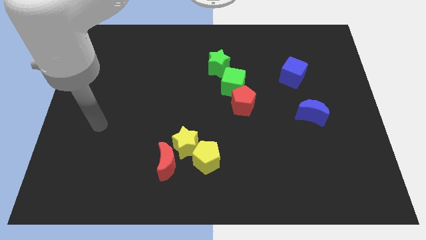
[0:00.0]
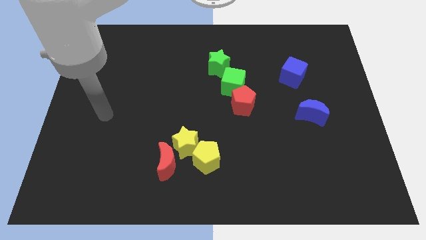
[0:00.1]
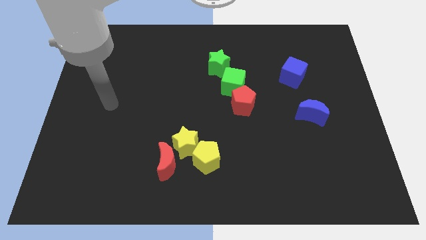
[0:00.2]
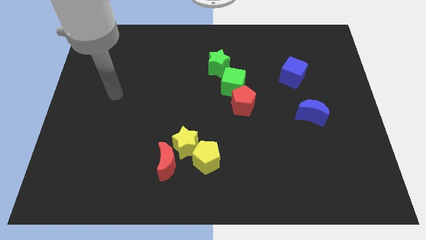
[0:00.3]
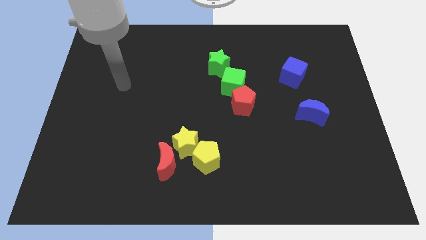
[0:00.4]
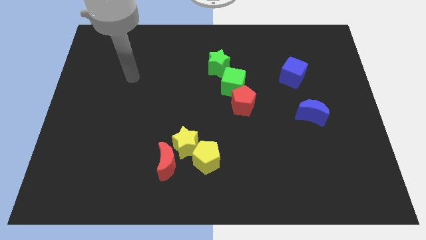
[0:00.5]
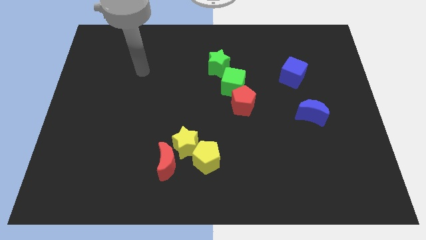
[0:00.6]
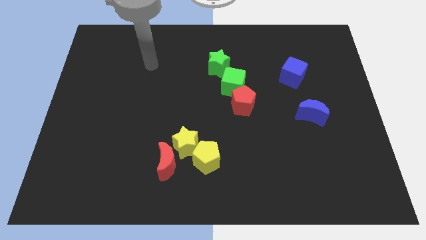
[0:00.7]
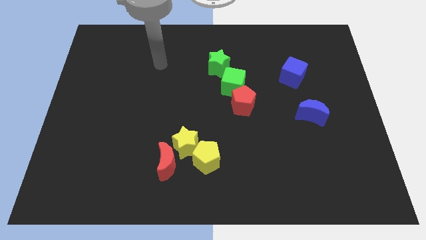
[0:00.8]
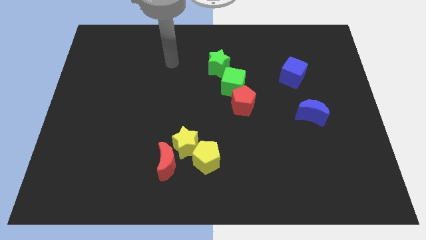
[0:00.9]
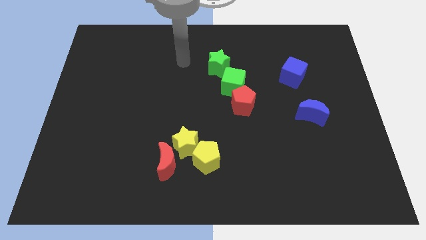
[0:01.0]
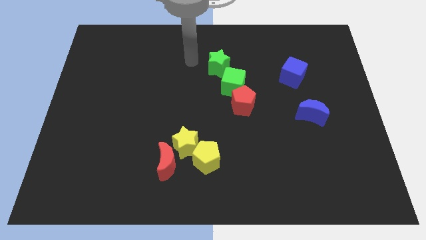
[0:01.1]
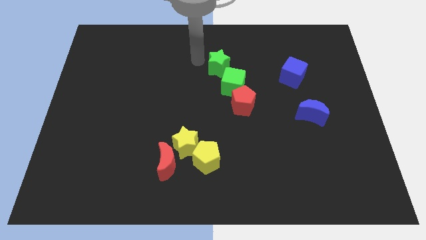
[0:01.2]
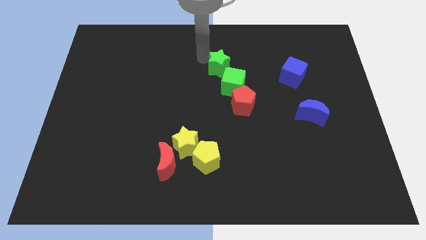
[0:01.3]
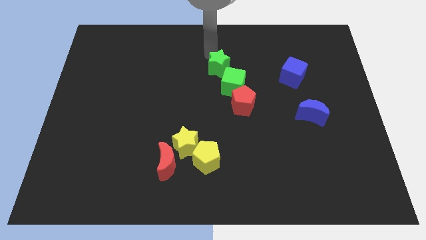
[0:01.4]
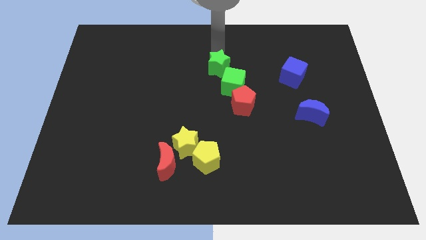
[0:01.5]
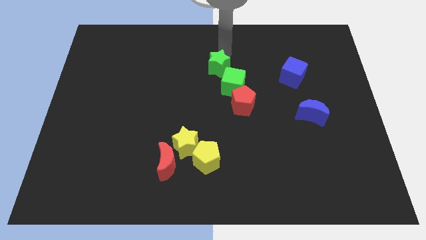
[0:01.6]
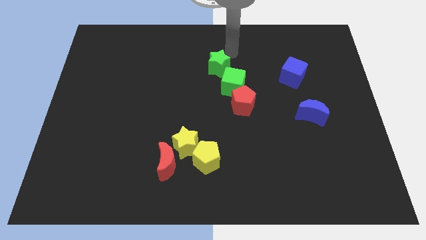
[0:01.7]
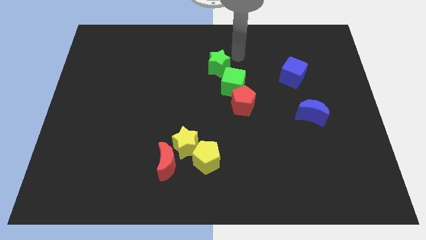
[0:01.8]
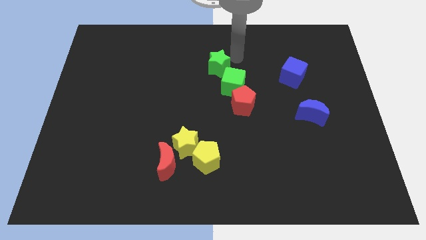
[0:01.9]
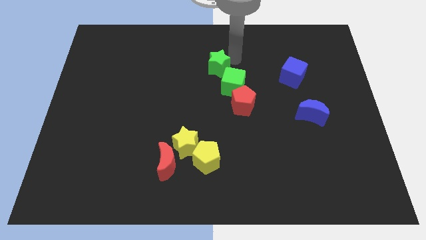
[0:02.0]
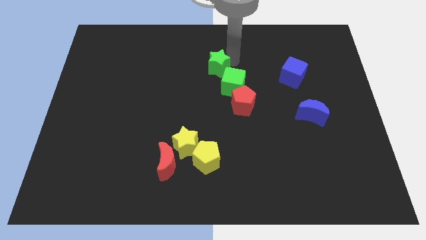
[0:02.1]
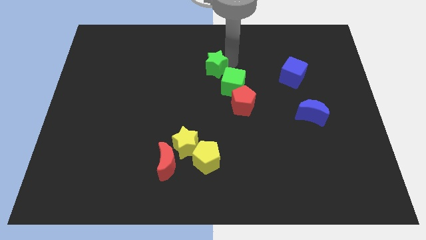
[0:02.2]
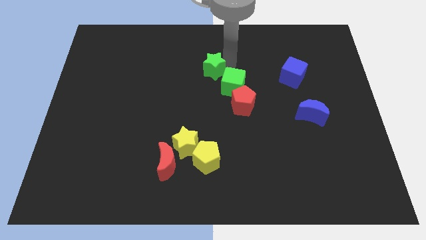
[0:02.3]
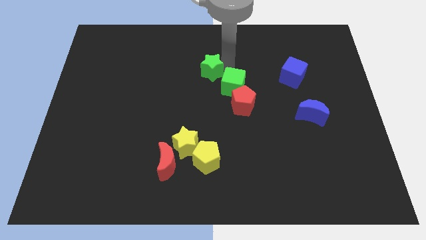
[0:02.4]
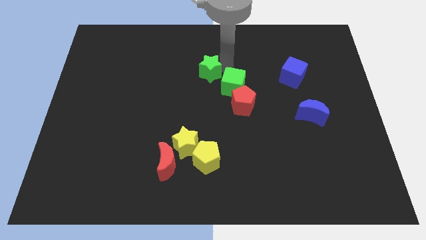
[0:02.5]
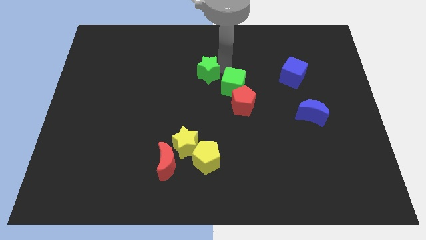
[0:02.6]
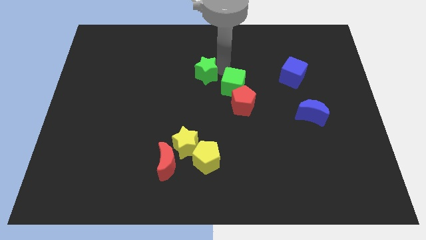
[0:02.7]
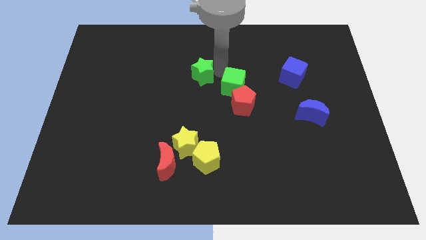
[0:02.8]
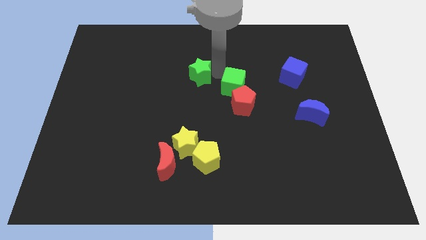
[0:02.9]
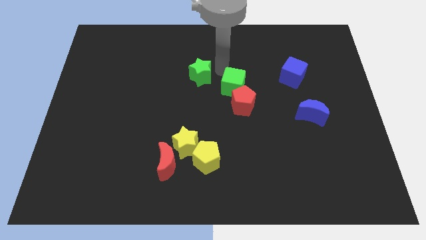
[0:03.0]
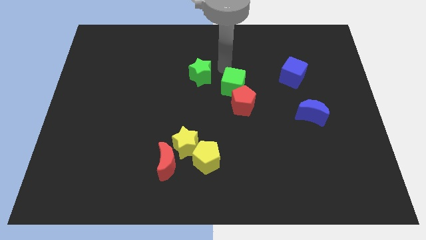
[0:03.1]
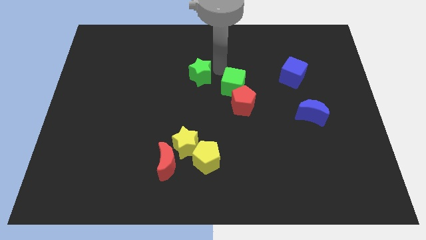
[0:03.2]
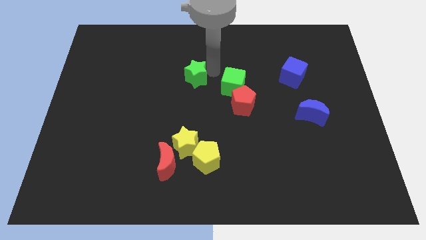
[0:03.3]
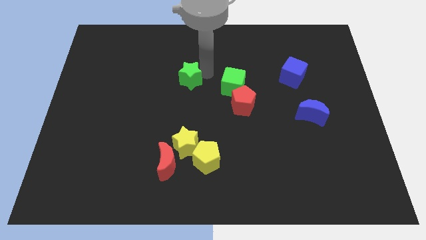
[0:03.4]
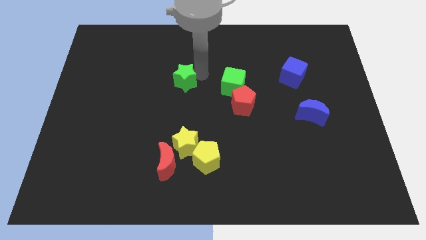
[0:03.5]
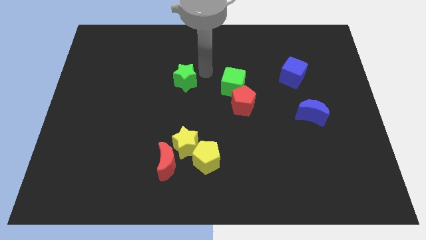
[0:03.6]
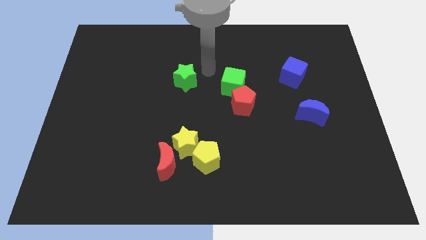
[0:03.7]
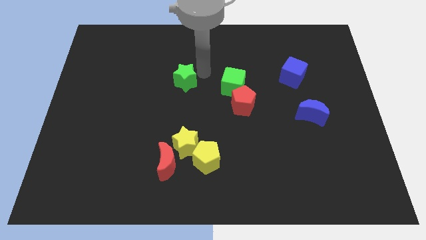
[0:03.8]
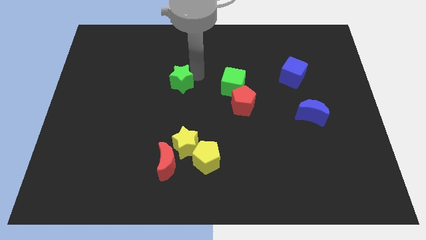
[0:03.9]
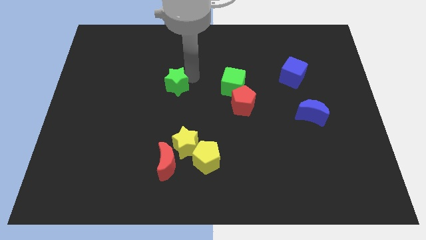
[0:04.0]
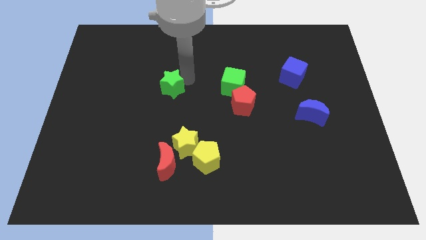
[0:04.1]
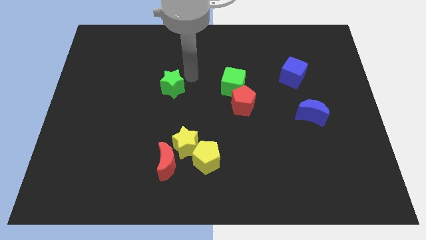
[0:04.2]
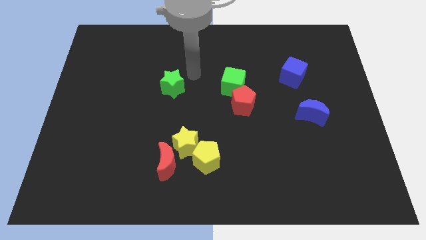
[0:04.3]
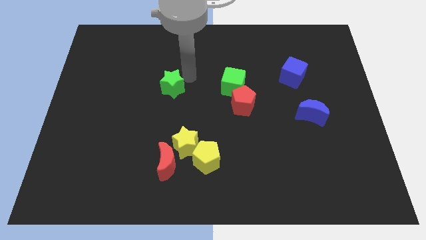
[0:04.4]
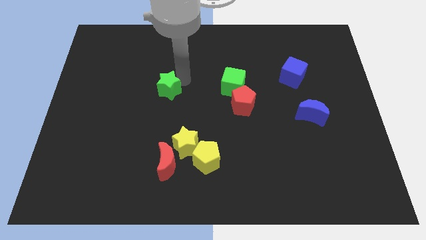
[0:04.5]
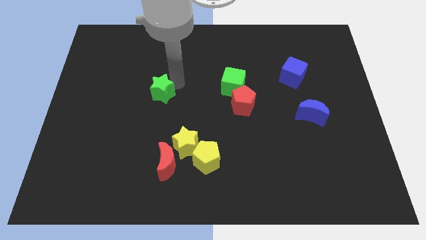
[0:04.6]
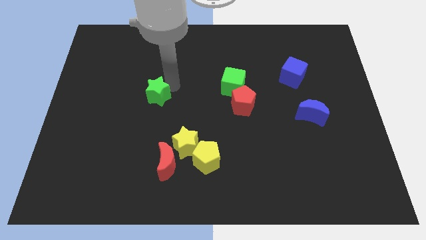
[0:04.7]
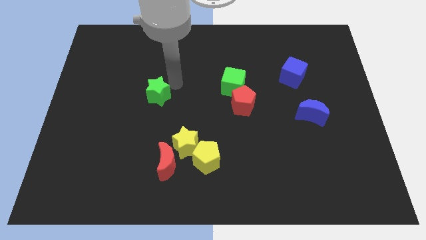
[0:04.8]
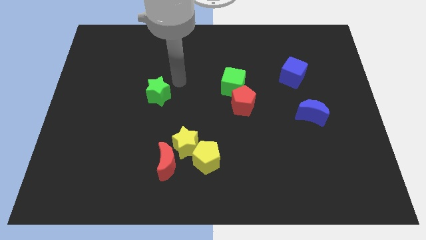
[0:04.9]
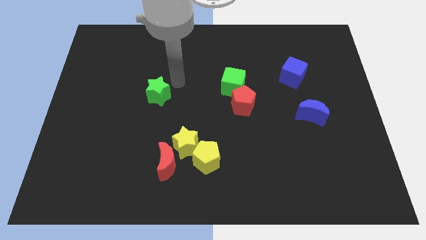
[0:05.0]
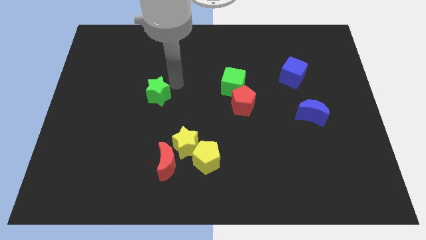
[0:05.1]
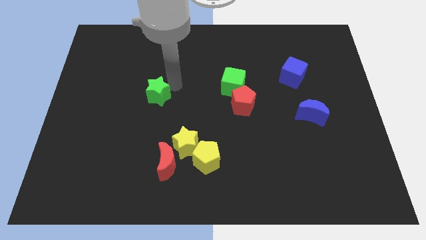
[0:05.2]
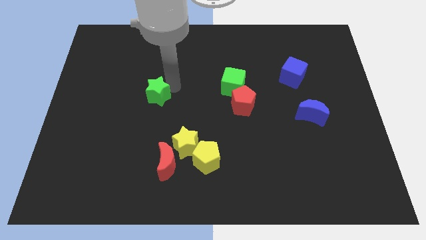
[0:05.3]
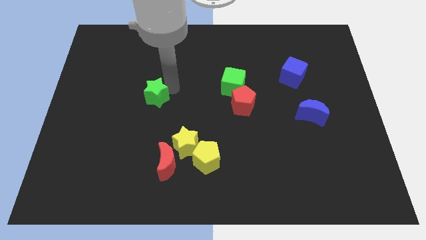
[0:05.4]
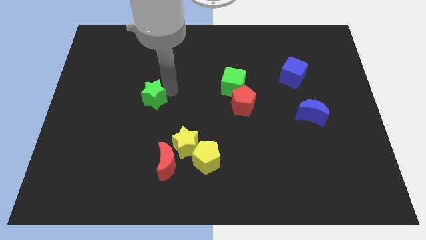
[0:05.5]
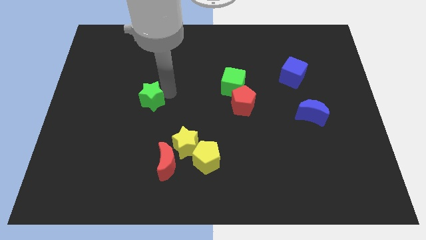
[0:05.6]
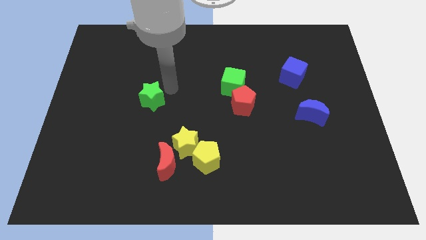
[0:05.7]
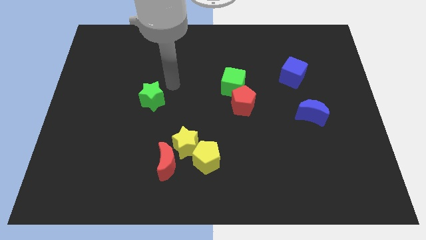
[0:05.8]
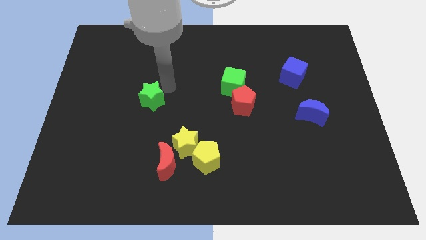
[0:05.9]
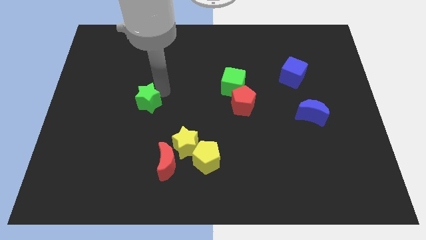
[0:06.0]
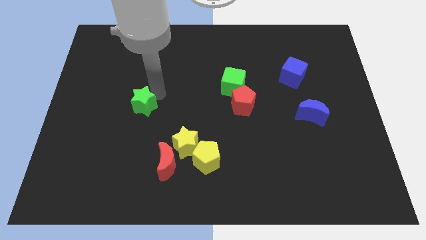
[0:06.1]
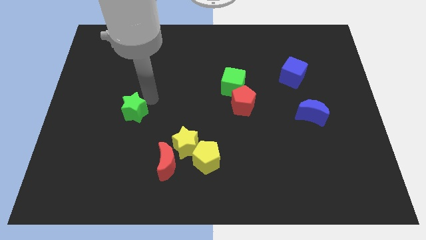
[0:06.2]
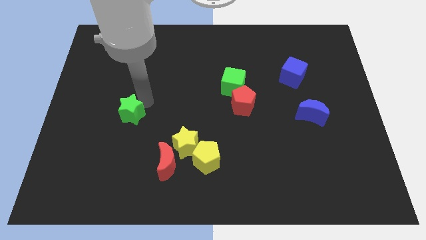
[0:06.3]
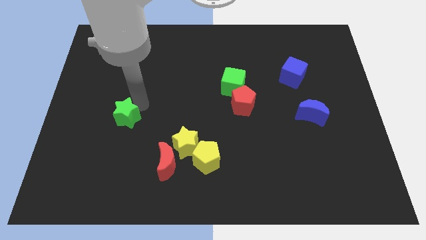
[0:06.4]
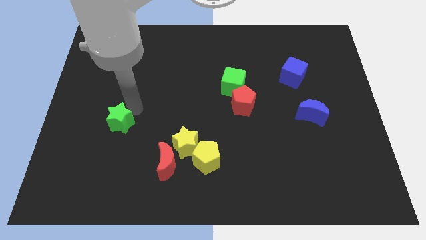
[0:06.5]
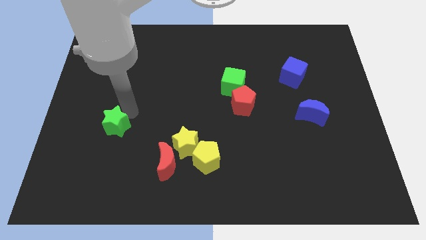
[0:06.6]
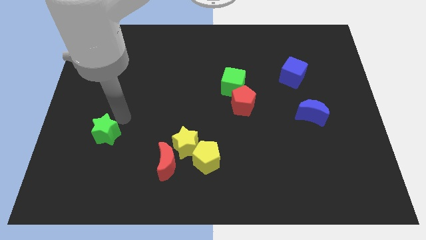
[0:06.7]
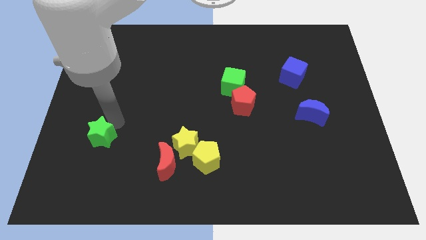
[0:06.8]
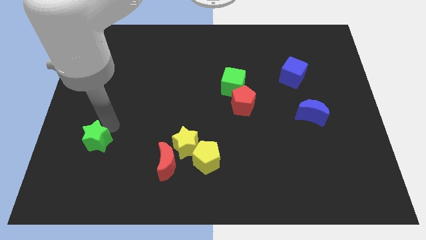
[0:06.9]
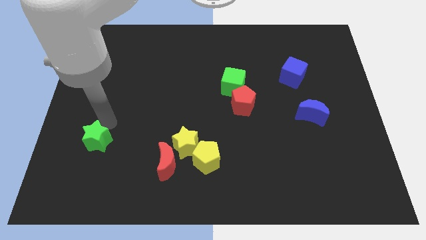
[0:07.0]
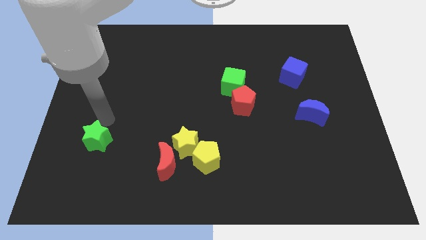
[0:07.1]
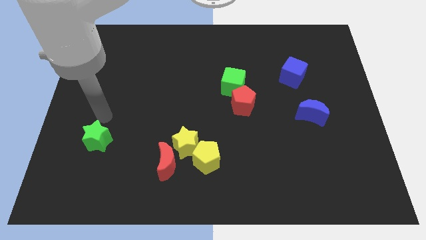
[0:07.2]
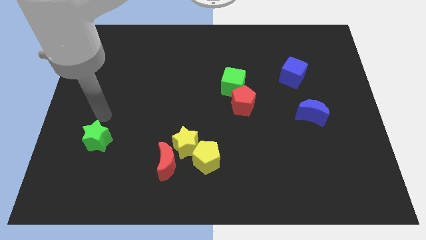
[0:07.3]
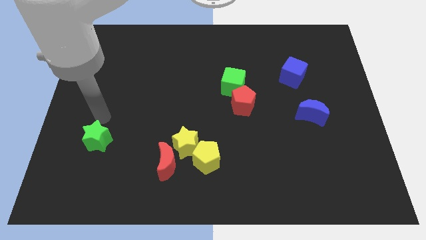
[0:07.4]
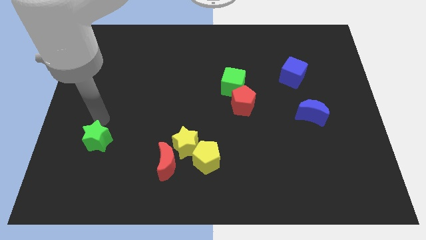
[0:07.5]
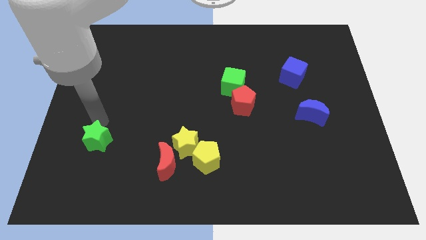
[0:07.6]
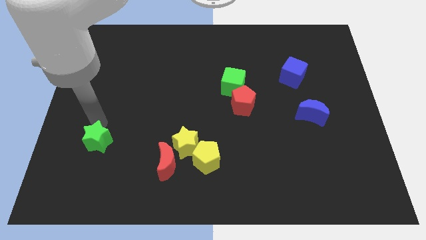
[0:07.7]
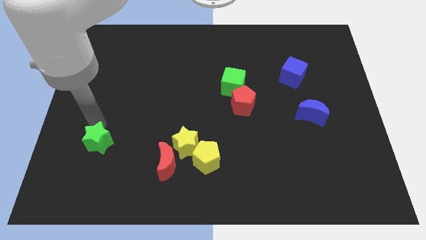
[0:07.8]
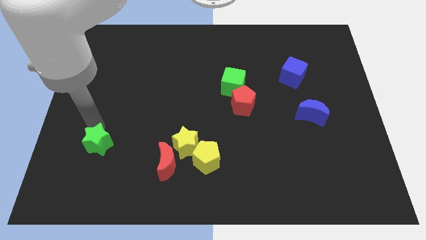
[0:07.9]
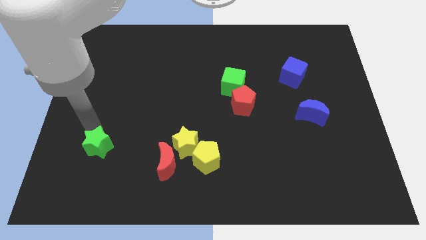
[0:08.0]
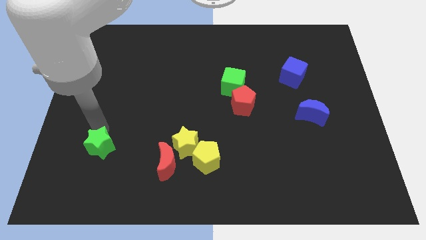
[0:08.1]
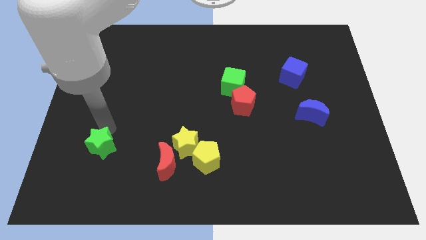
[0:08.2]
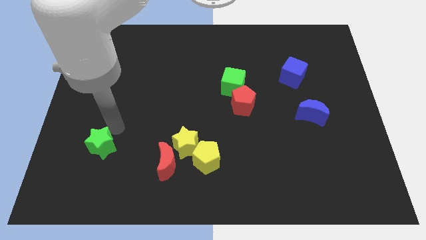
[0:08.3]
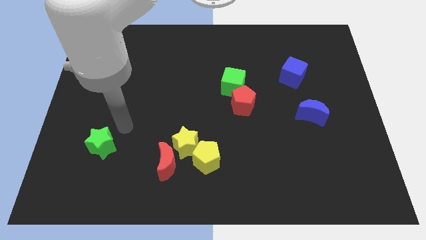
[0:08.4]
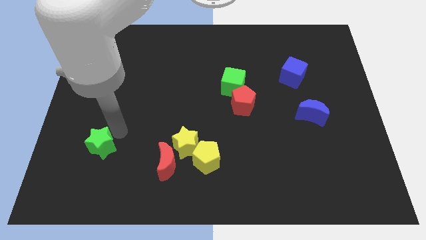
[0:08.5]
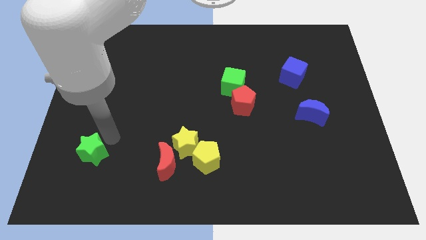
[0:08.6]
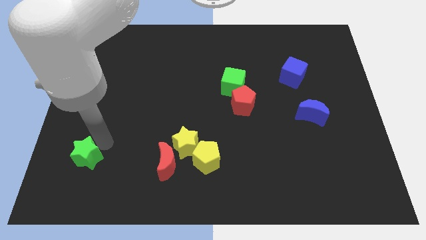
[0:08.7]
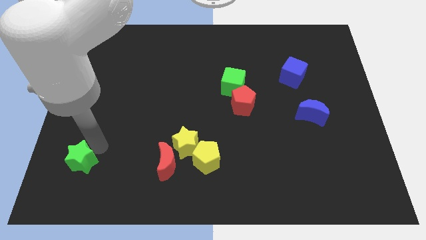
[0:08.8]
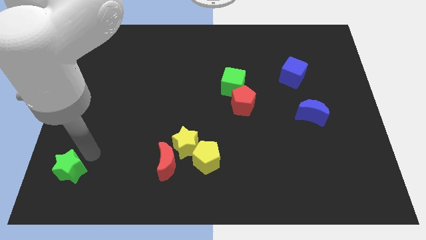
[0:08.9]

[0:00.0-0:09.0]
slide the green star to the lower left corner
